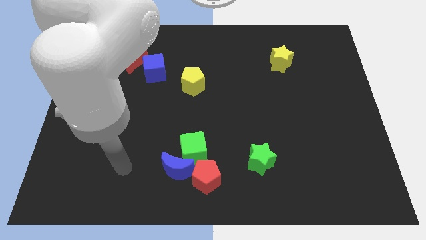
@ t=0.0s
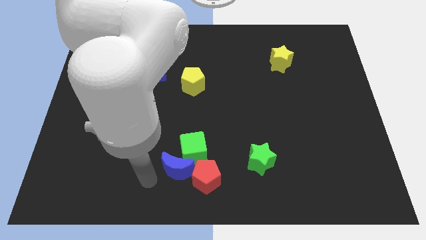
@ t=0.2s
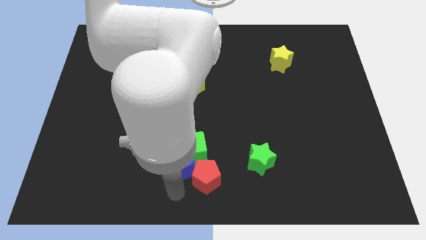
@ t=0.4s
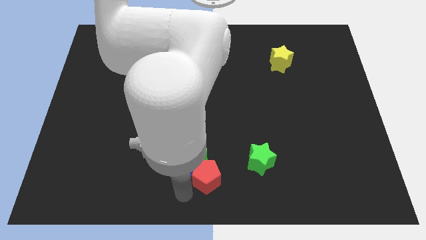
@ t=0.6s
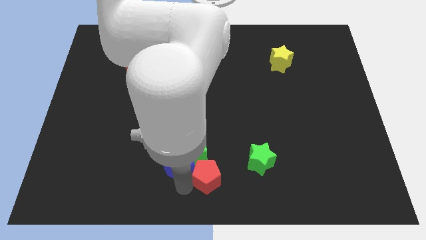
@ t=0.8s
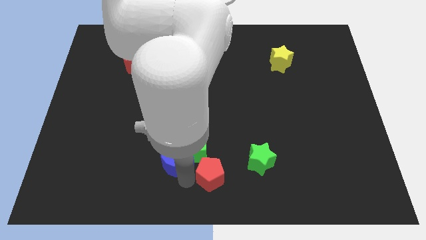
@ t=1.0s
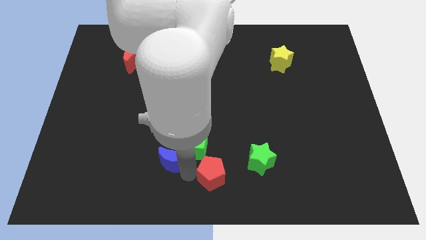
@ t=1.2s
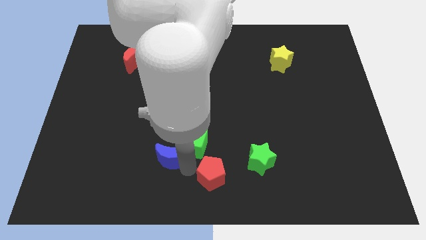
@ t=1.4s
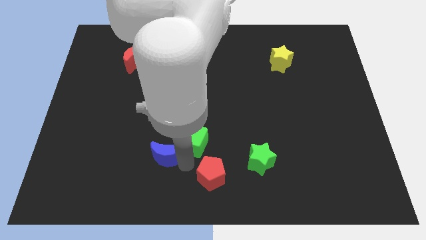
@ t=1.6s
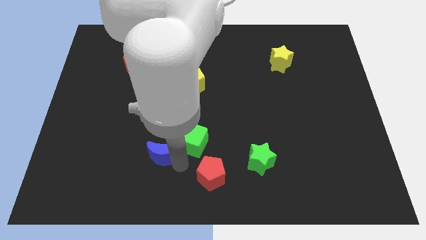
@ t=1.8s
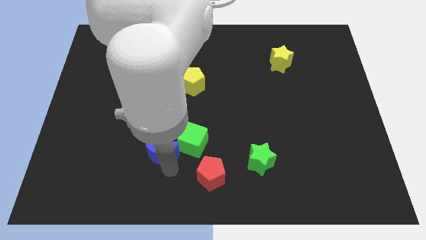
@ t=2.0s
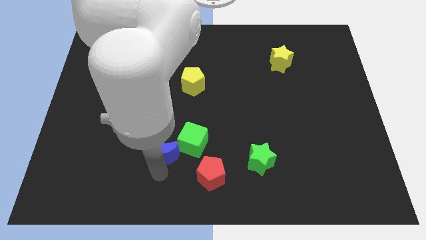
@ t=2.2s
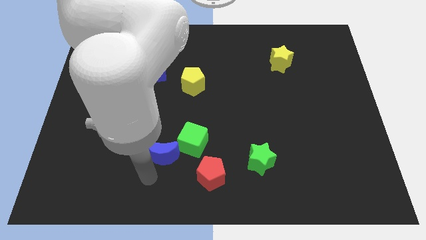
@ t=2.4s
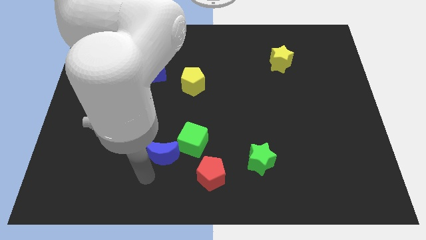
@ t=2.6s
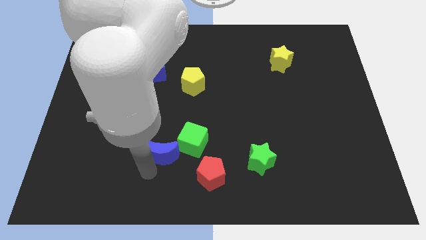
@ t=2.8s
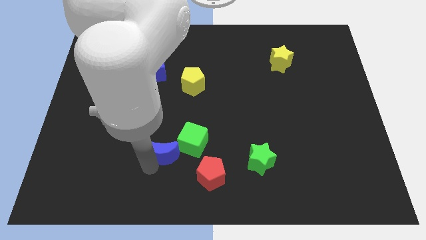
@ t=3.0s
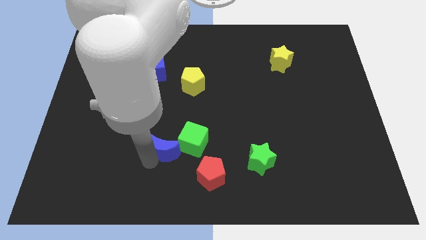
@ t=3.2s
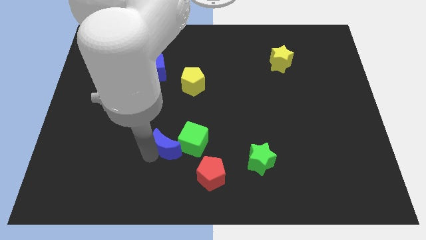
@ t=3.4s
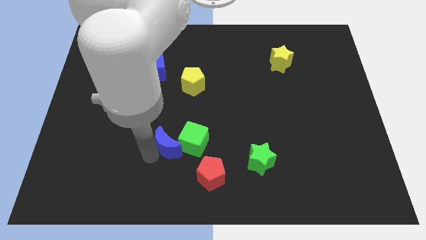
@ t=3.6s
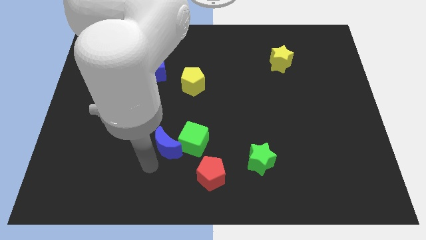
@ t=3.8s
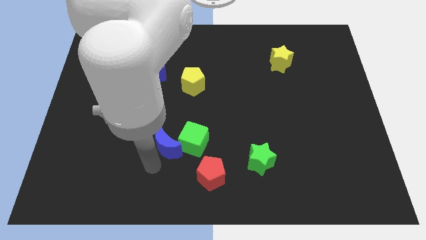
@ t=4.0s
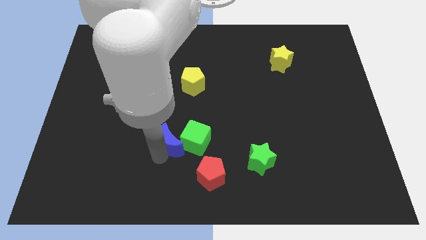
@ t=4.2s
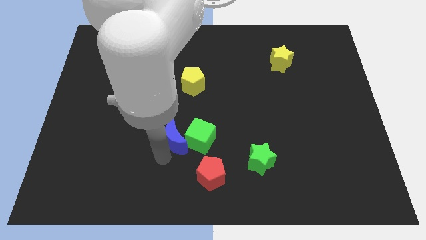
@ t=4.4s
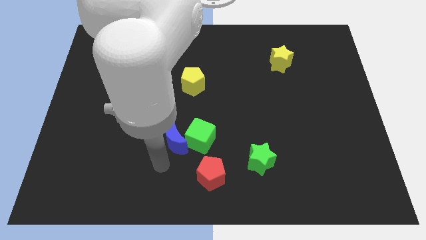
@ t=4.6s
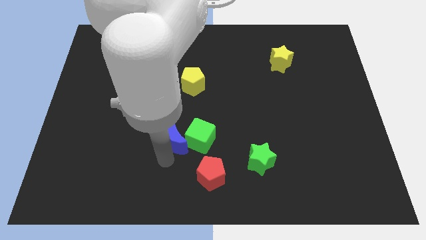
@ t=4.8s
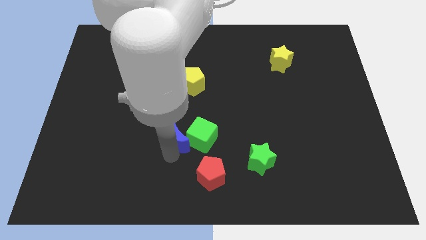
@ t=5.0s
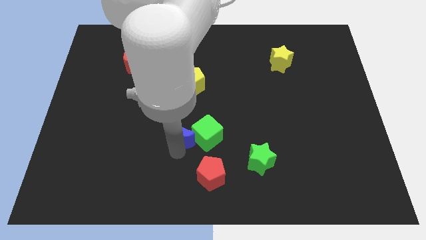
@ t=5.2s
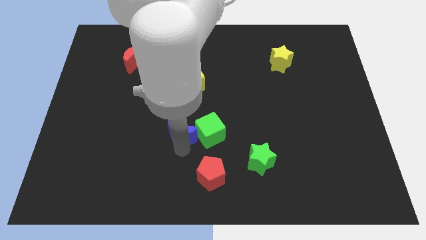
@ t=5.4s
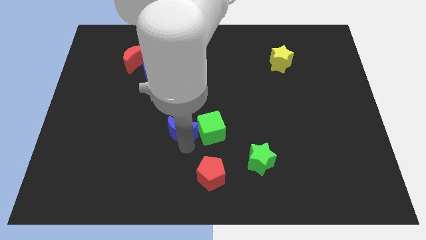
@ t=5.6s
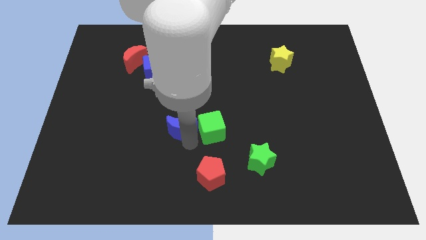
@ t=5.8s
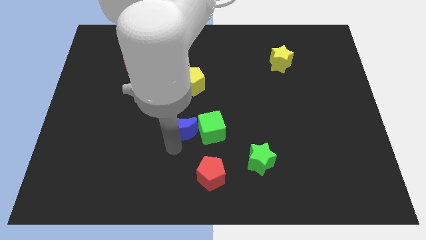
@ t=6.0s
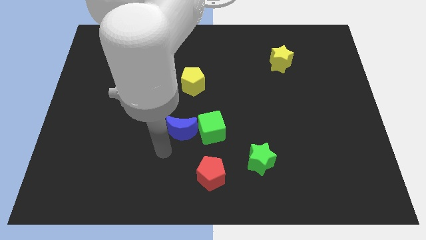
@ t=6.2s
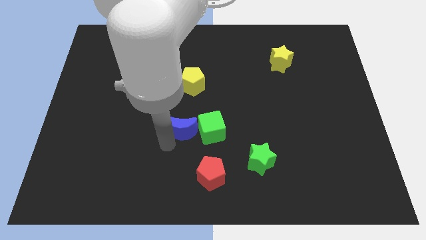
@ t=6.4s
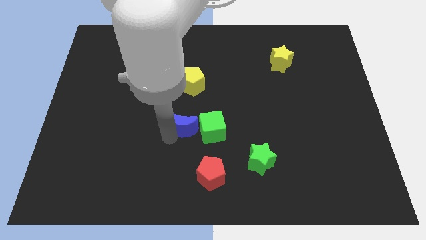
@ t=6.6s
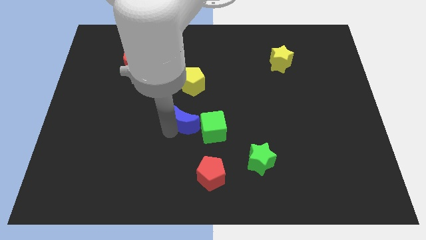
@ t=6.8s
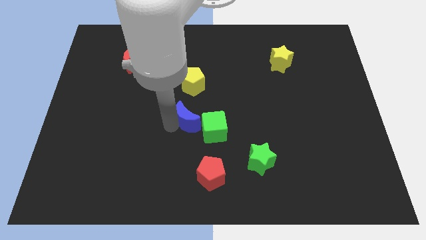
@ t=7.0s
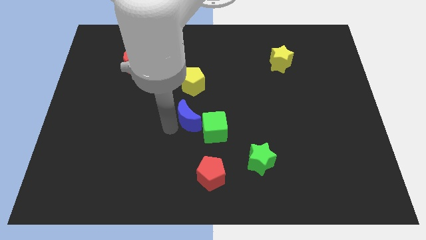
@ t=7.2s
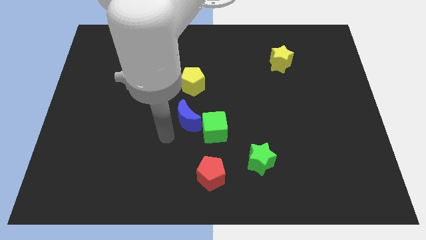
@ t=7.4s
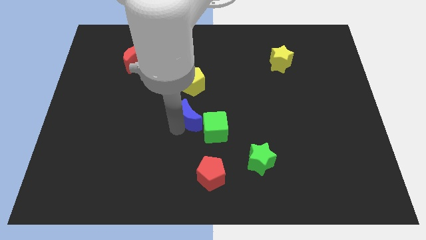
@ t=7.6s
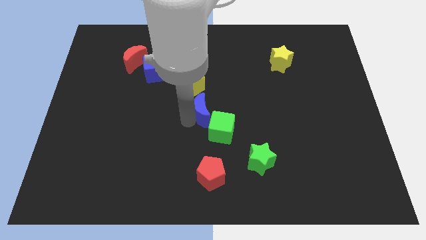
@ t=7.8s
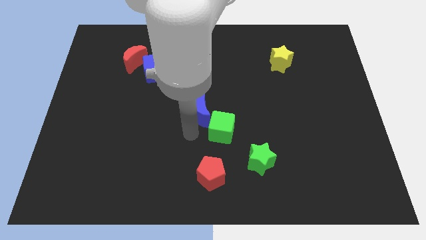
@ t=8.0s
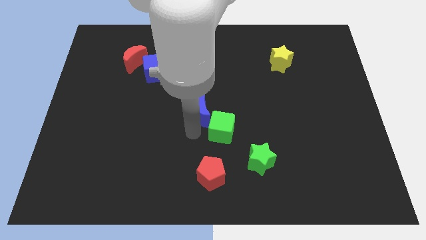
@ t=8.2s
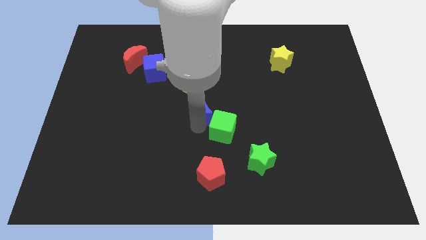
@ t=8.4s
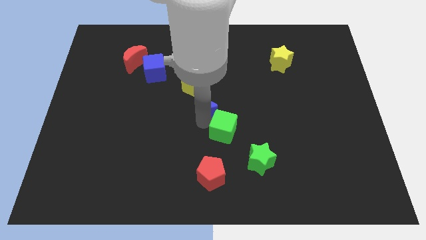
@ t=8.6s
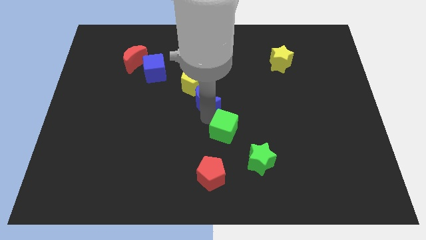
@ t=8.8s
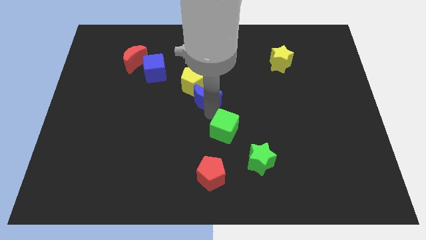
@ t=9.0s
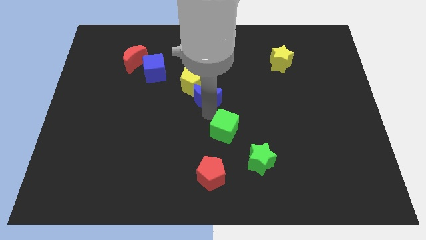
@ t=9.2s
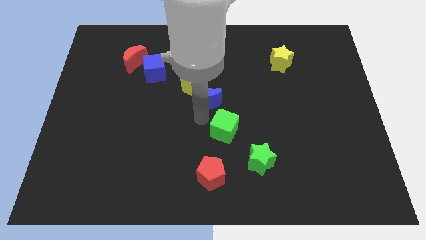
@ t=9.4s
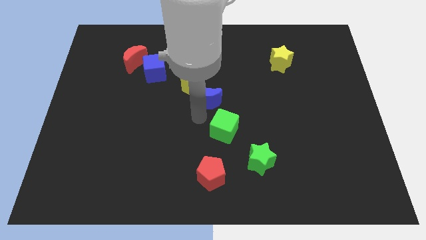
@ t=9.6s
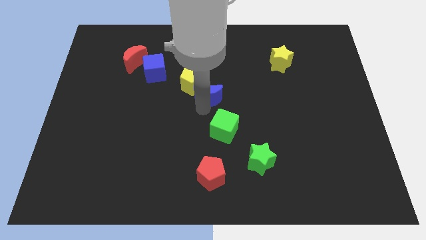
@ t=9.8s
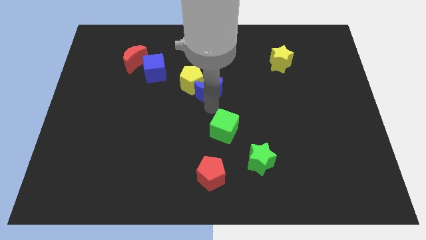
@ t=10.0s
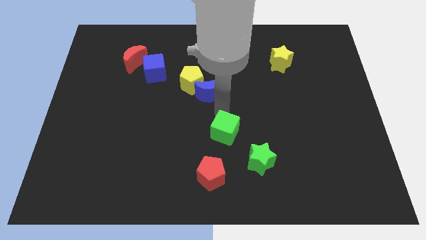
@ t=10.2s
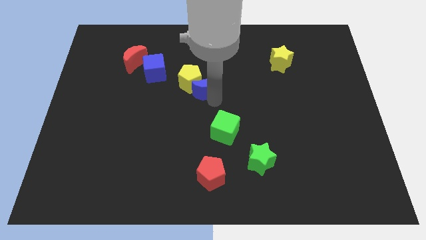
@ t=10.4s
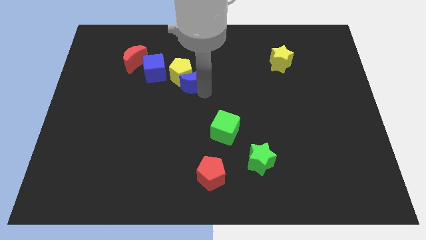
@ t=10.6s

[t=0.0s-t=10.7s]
push the blue moon to the right side of the blue cube

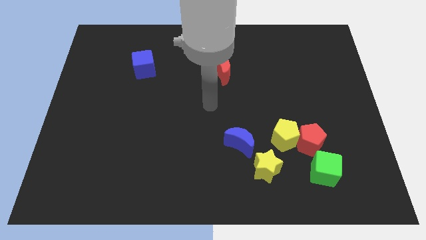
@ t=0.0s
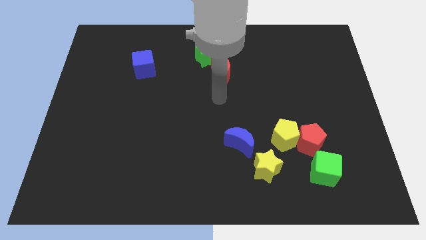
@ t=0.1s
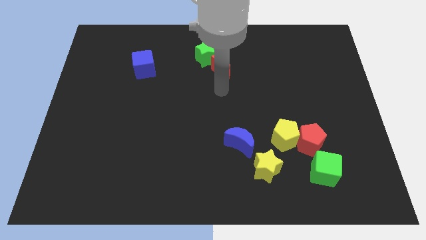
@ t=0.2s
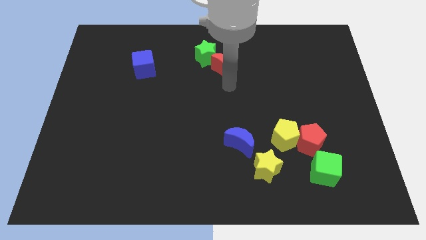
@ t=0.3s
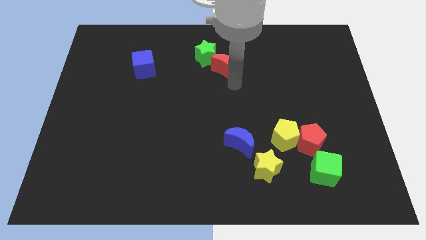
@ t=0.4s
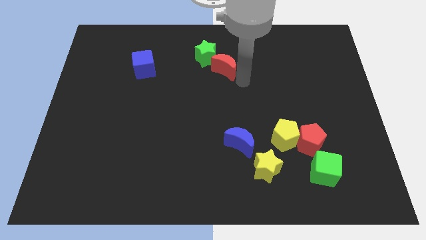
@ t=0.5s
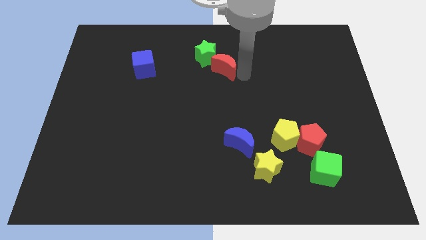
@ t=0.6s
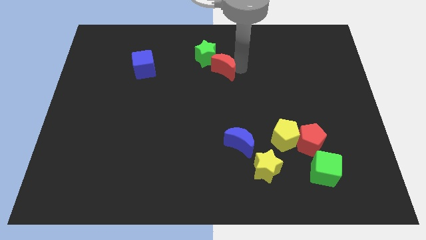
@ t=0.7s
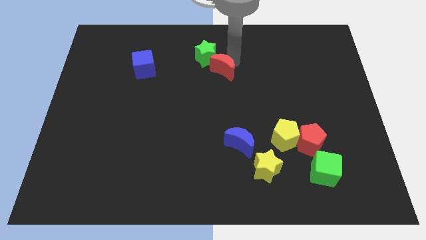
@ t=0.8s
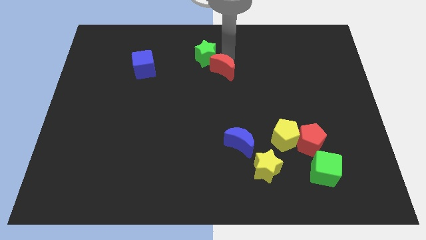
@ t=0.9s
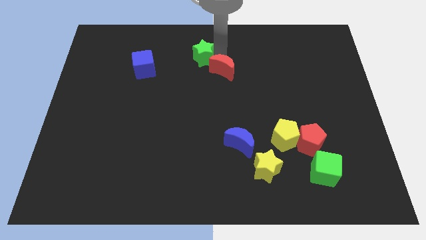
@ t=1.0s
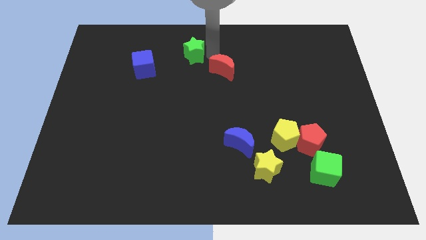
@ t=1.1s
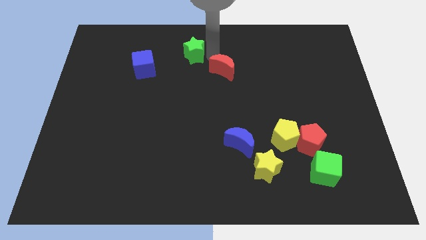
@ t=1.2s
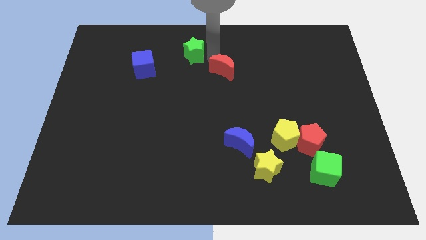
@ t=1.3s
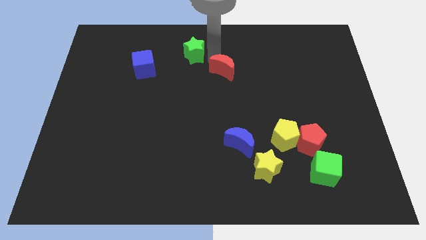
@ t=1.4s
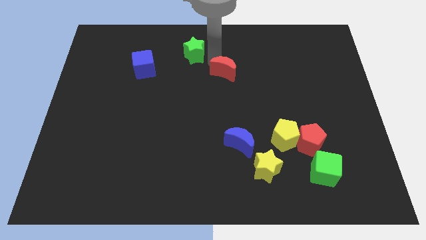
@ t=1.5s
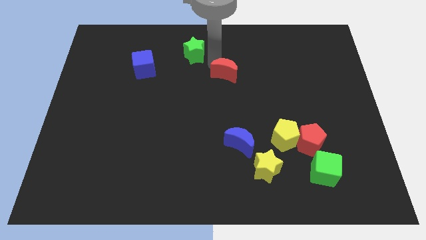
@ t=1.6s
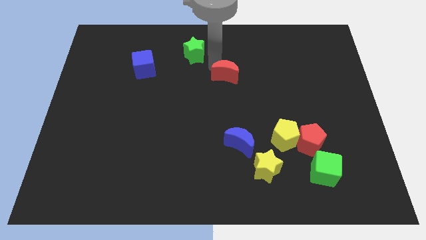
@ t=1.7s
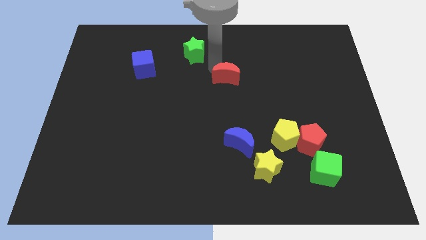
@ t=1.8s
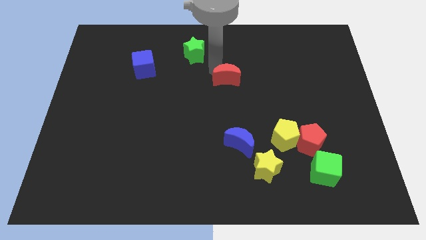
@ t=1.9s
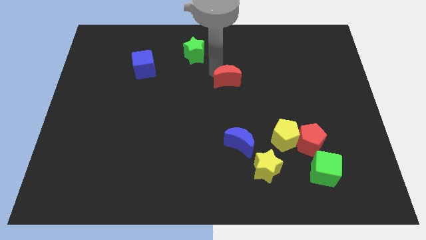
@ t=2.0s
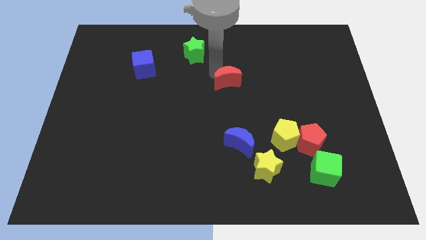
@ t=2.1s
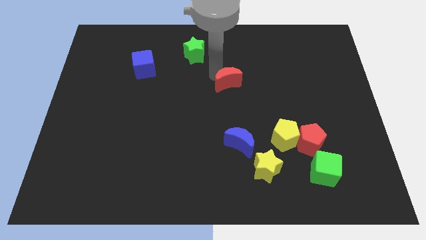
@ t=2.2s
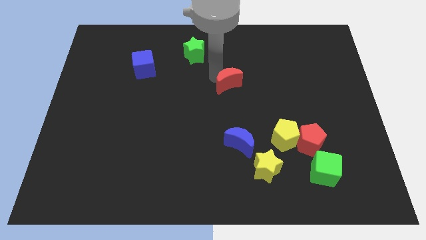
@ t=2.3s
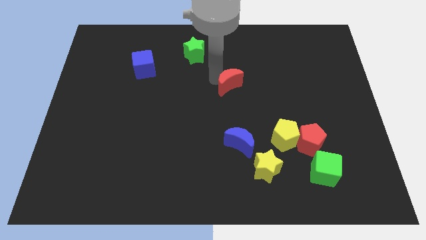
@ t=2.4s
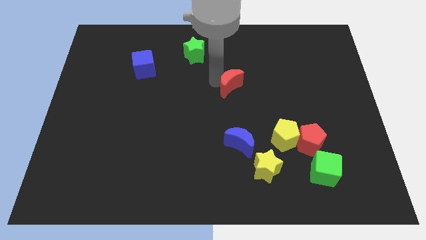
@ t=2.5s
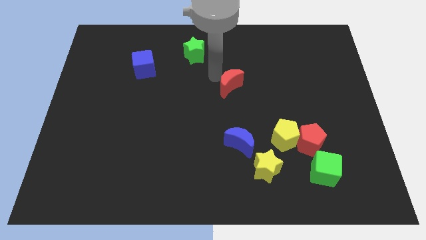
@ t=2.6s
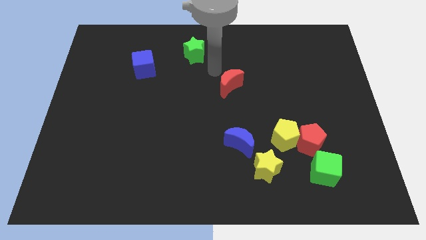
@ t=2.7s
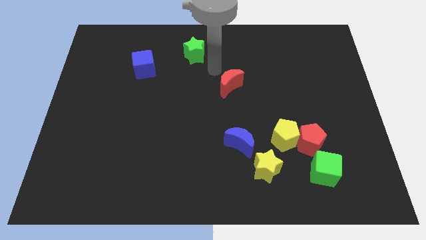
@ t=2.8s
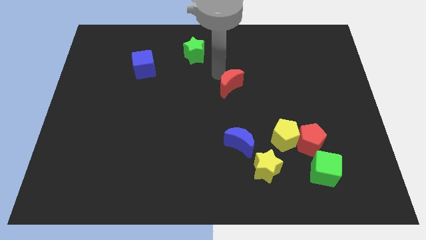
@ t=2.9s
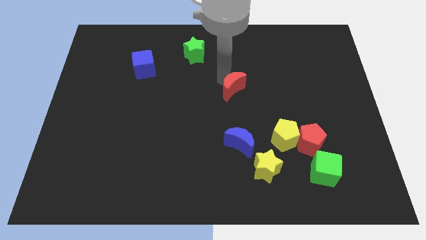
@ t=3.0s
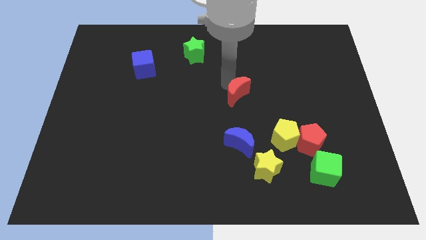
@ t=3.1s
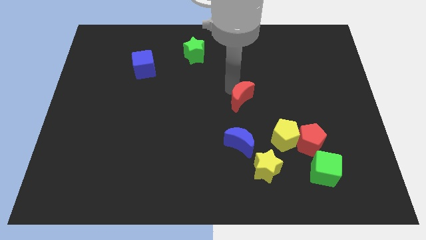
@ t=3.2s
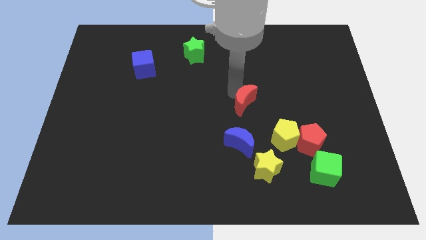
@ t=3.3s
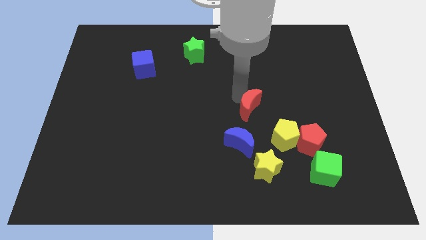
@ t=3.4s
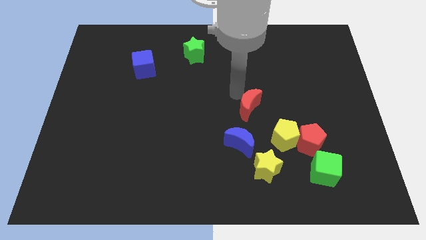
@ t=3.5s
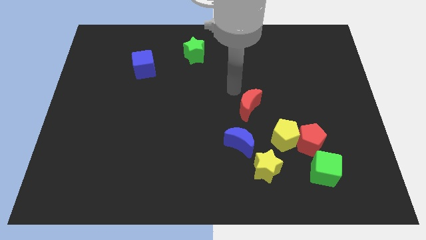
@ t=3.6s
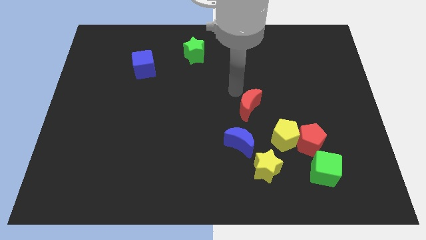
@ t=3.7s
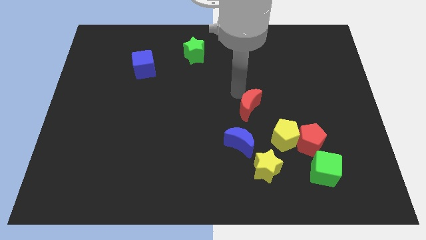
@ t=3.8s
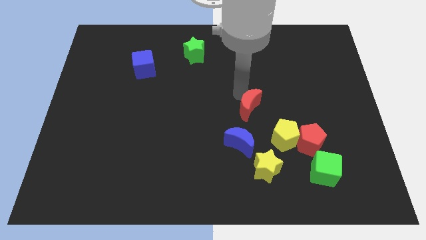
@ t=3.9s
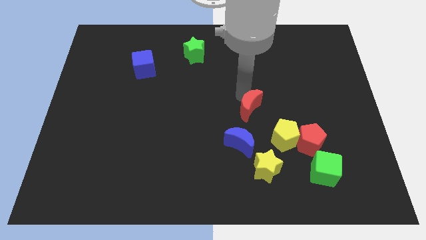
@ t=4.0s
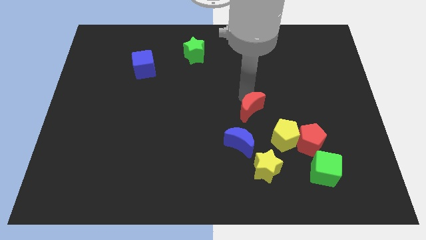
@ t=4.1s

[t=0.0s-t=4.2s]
put the red moon diagonally up and to the right of the blue moon
